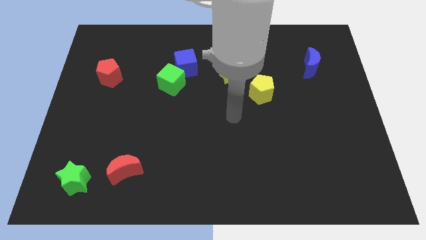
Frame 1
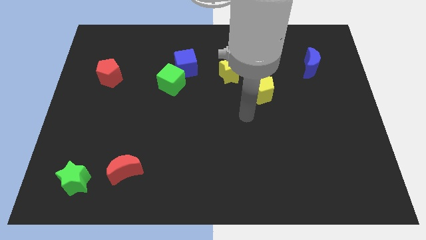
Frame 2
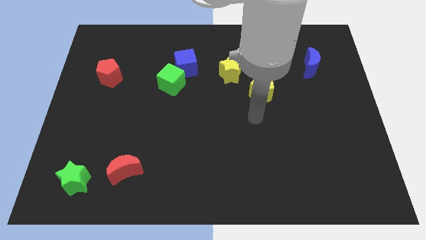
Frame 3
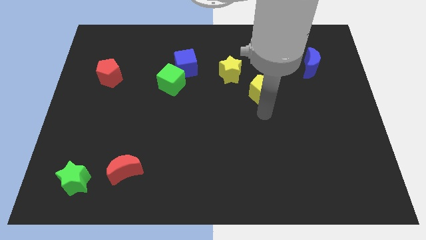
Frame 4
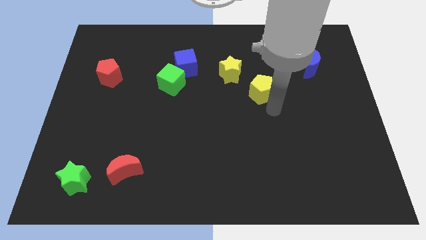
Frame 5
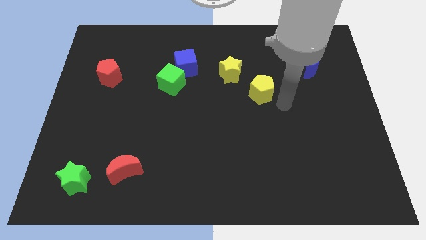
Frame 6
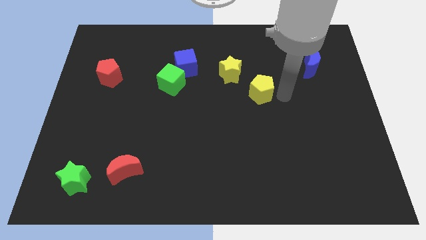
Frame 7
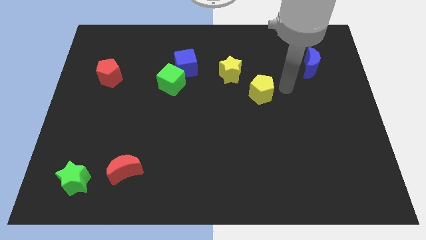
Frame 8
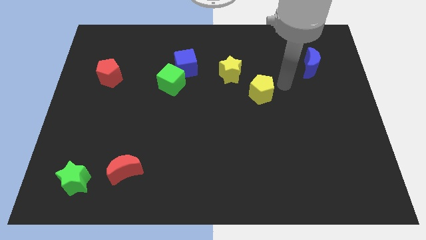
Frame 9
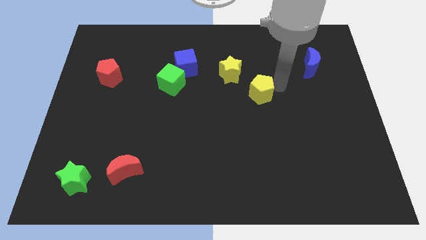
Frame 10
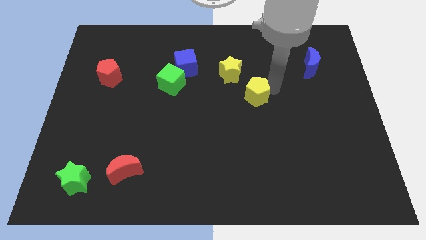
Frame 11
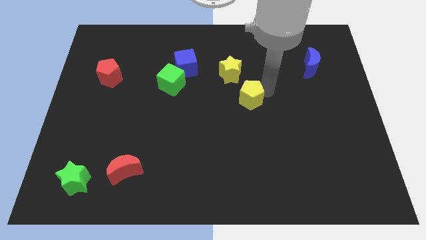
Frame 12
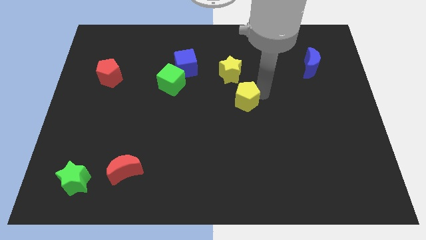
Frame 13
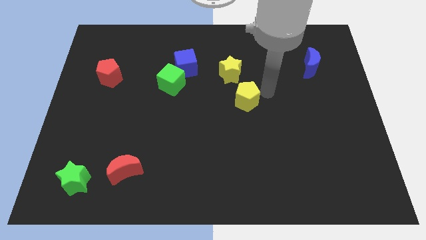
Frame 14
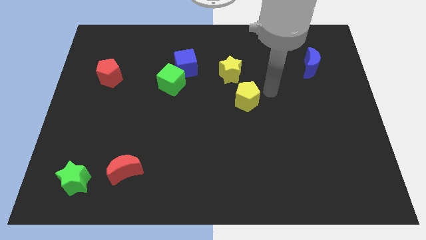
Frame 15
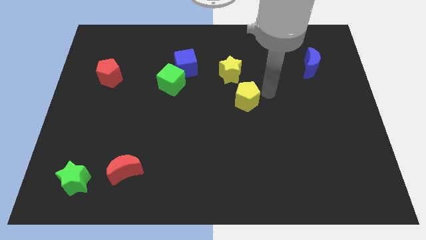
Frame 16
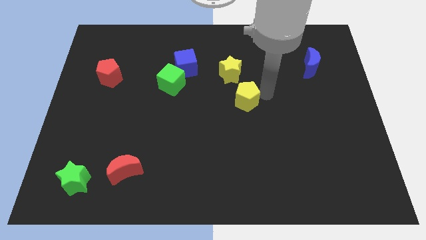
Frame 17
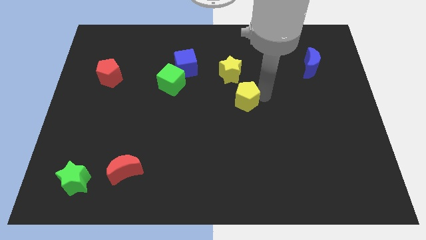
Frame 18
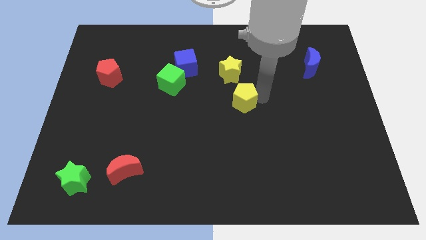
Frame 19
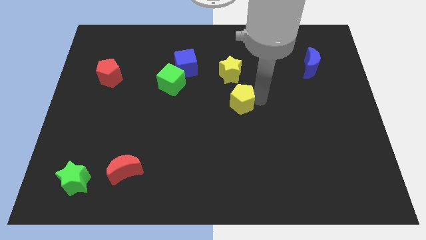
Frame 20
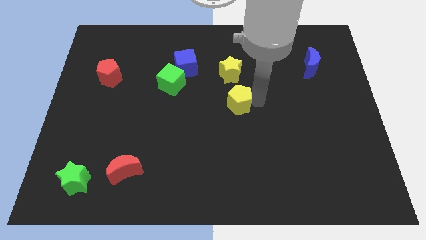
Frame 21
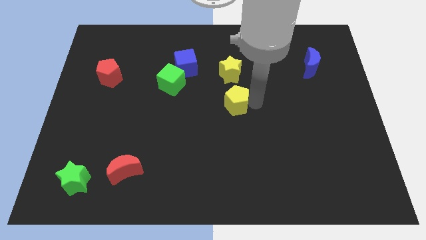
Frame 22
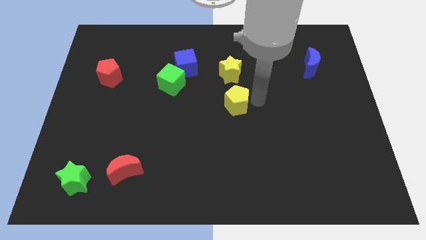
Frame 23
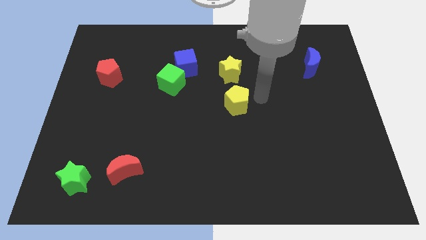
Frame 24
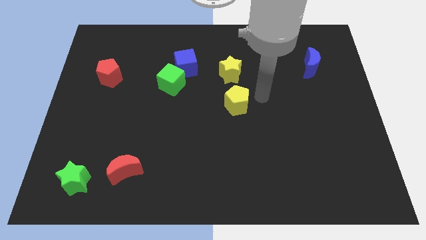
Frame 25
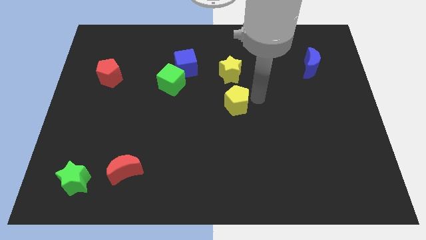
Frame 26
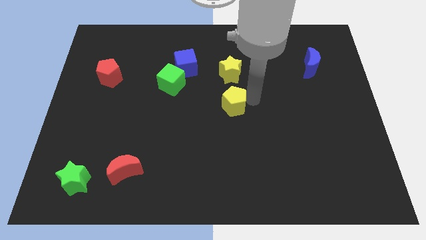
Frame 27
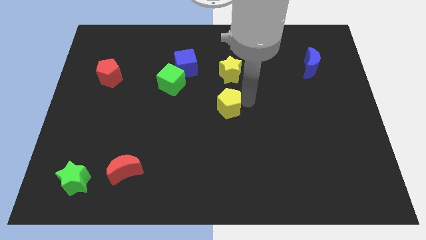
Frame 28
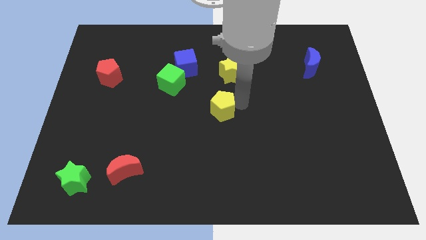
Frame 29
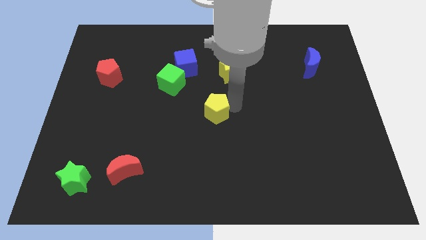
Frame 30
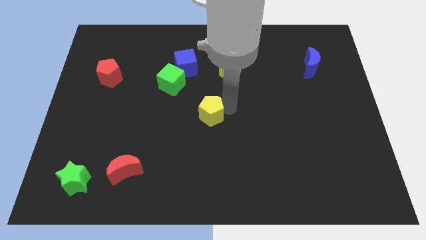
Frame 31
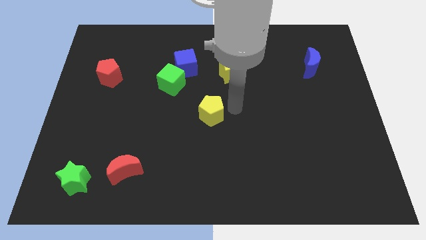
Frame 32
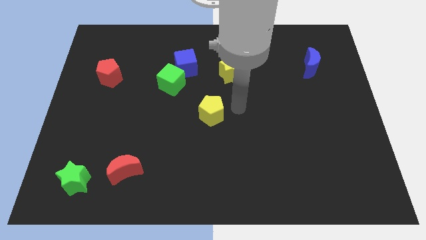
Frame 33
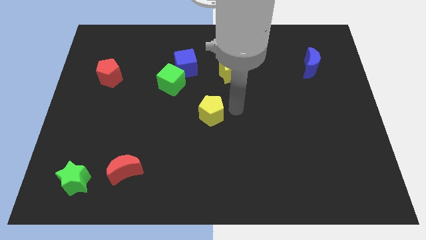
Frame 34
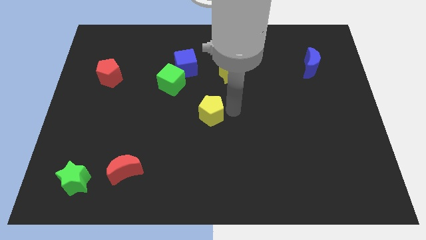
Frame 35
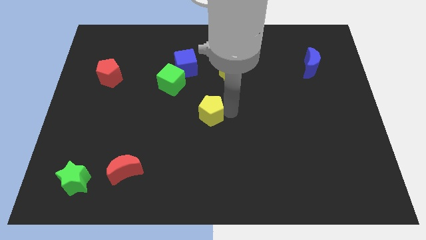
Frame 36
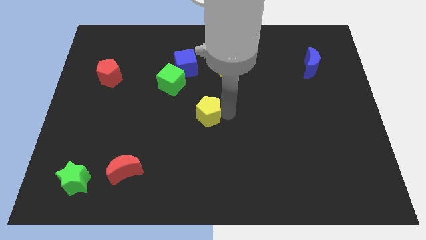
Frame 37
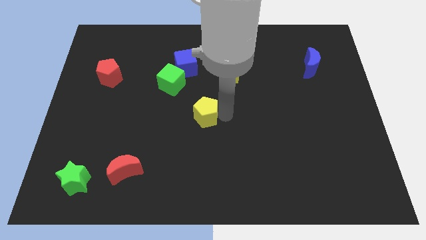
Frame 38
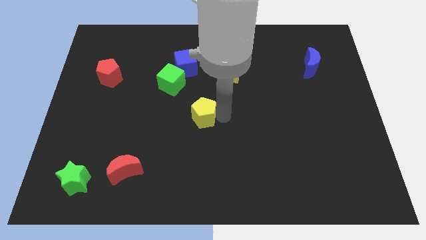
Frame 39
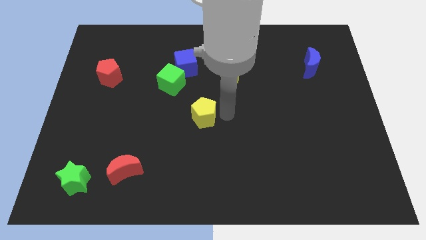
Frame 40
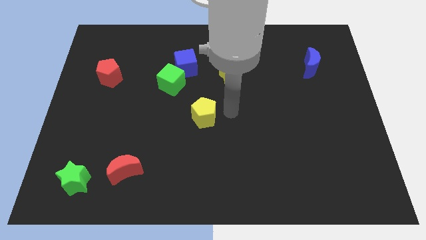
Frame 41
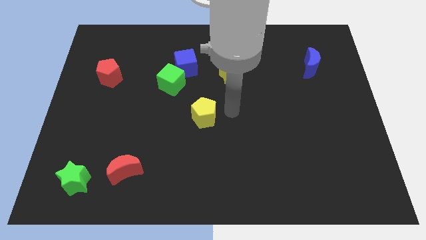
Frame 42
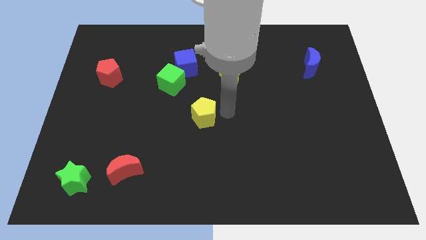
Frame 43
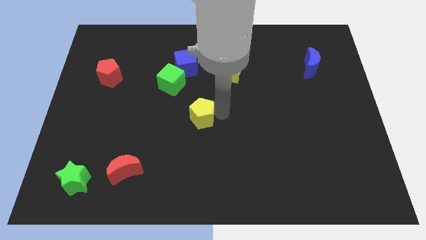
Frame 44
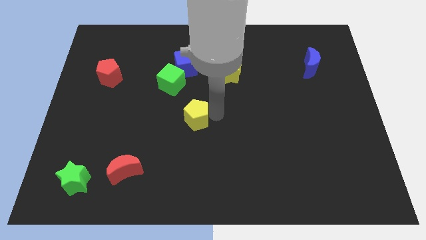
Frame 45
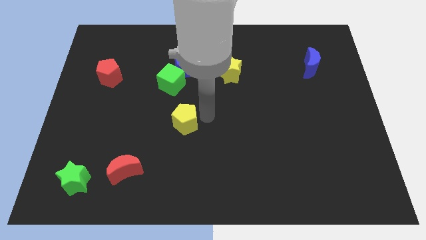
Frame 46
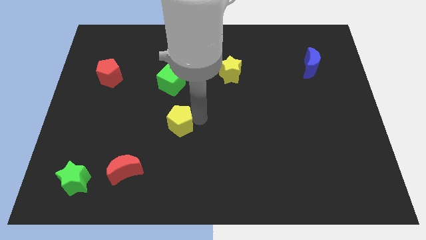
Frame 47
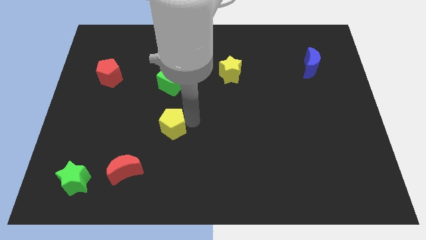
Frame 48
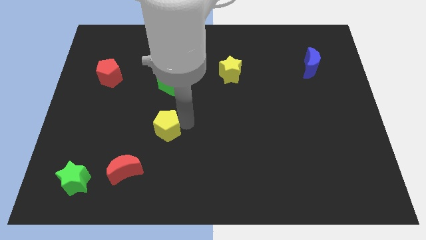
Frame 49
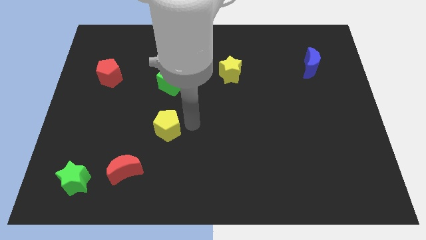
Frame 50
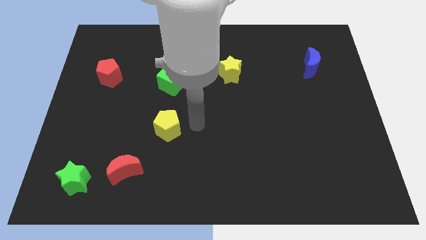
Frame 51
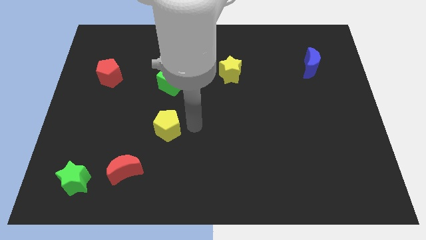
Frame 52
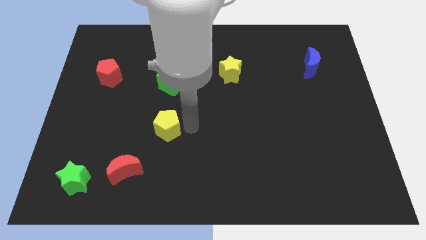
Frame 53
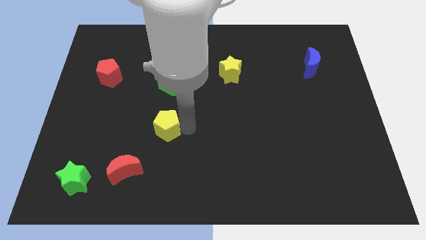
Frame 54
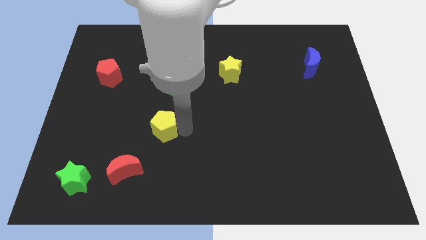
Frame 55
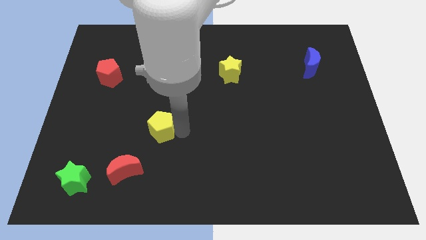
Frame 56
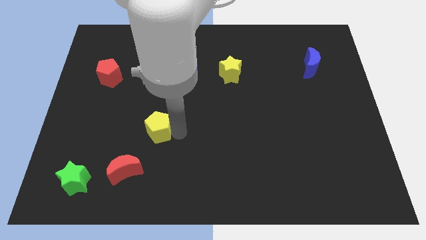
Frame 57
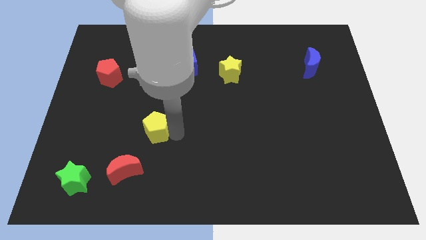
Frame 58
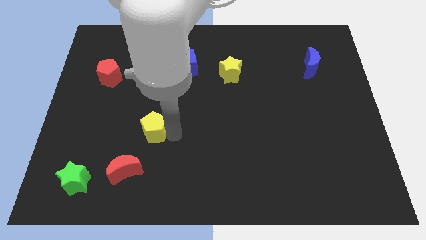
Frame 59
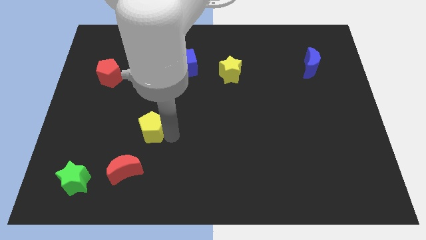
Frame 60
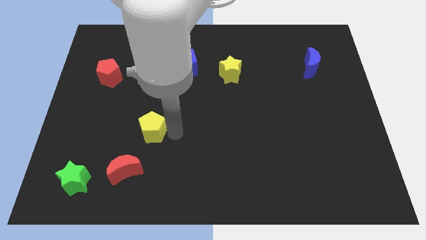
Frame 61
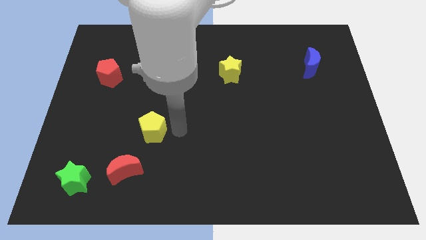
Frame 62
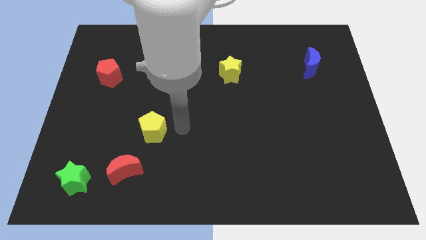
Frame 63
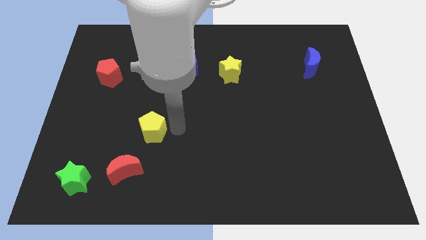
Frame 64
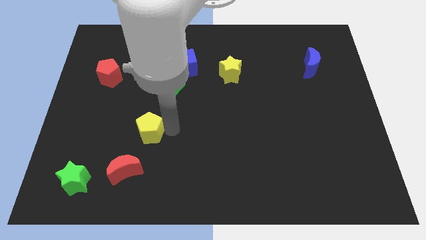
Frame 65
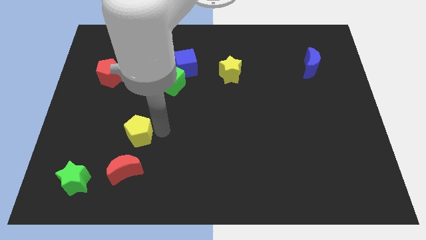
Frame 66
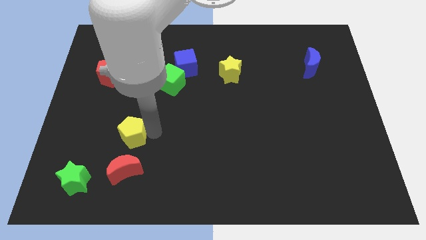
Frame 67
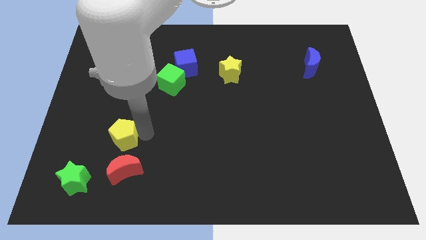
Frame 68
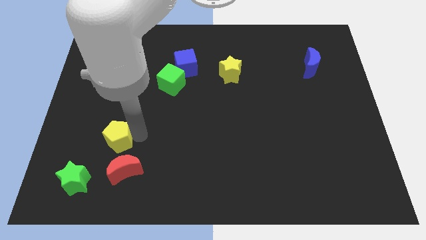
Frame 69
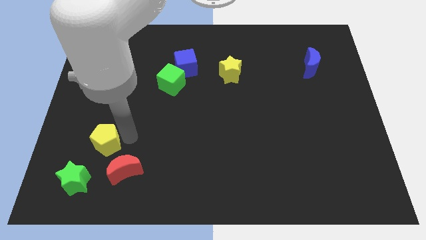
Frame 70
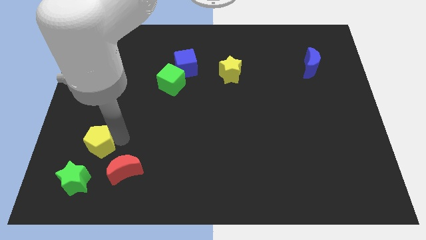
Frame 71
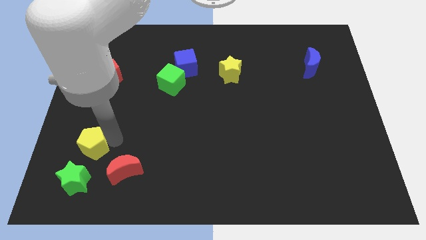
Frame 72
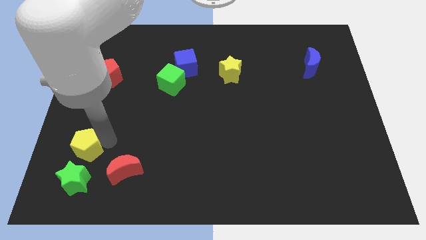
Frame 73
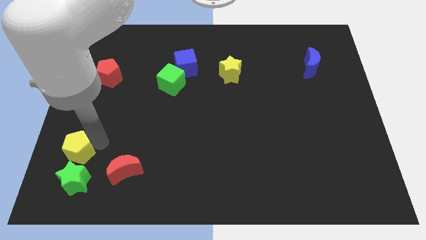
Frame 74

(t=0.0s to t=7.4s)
slide the yellow pentagon left of the red moon

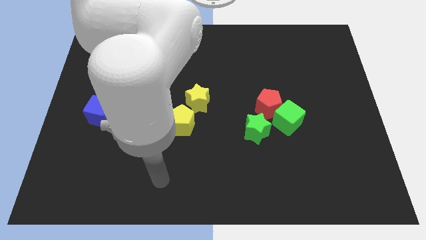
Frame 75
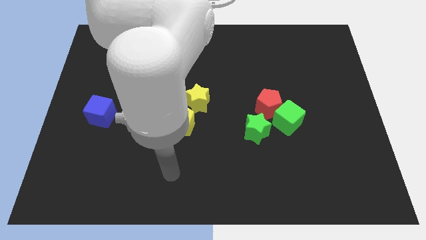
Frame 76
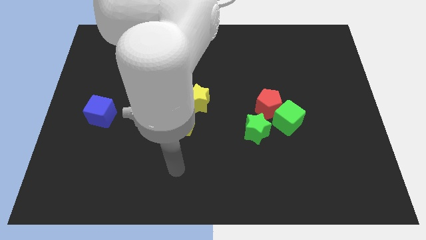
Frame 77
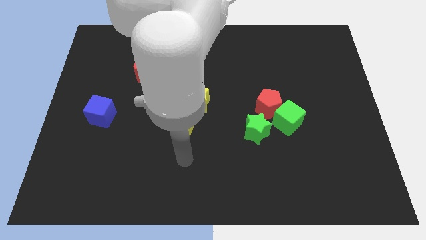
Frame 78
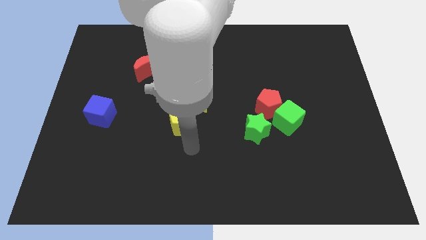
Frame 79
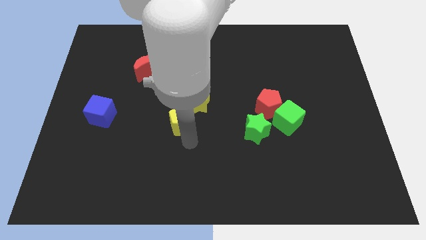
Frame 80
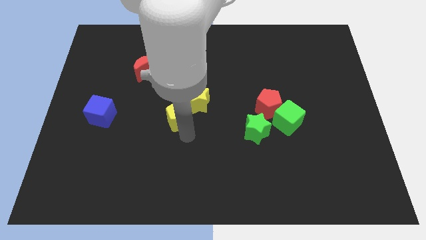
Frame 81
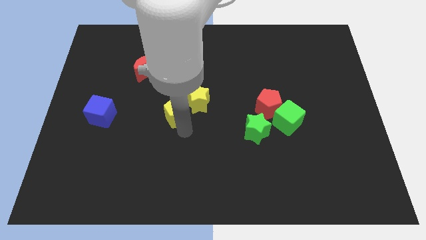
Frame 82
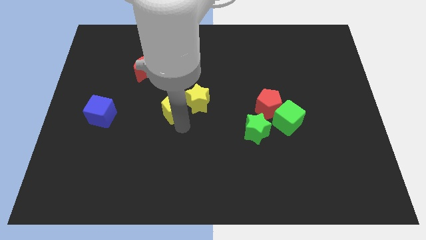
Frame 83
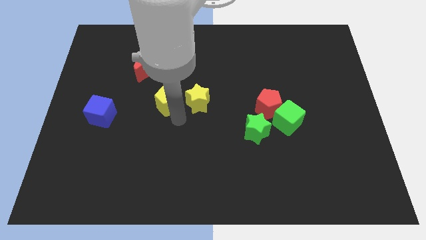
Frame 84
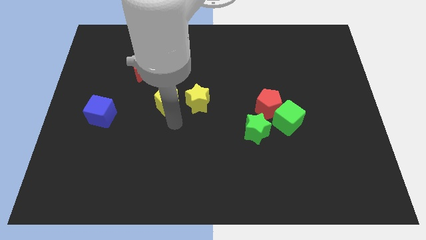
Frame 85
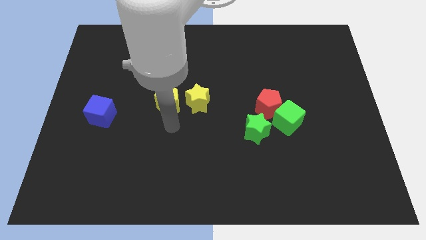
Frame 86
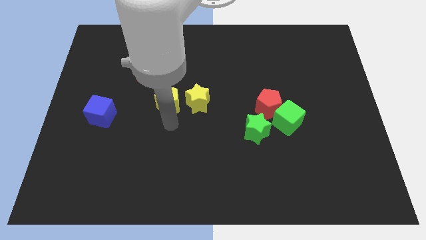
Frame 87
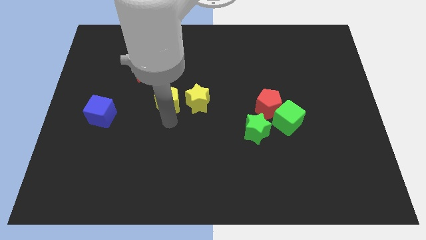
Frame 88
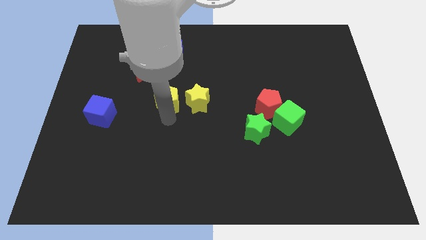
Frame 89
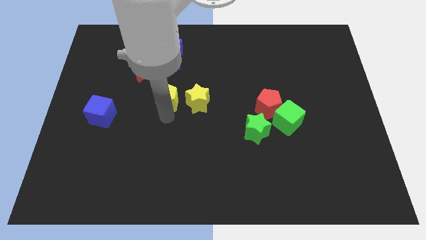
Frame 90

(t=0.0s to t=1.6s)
push the yellow pentagon to the bottom right side of the red moon
